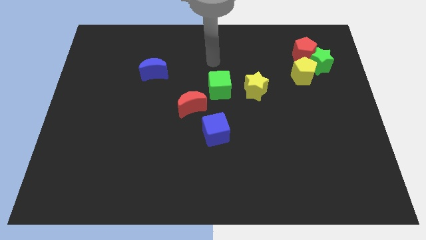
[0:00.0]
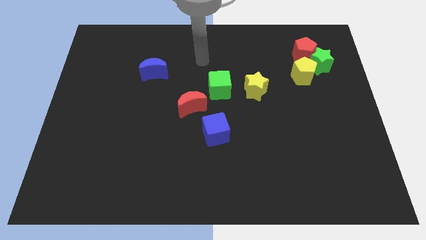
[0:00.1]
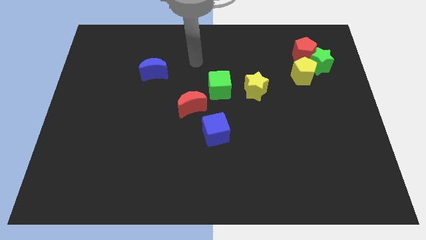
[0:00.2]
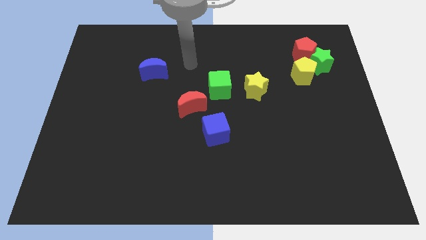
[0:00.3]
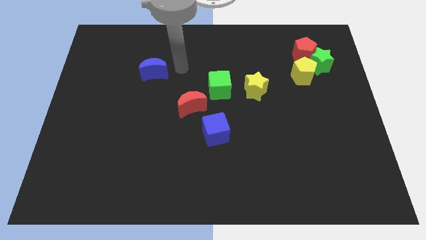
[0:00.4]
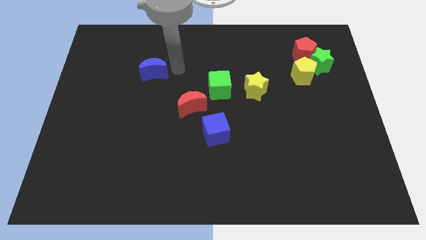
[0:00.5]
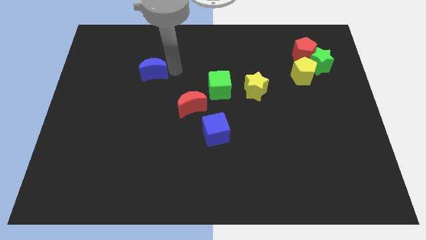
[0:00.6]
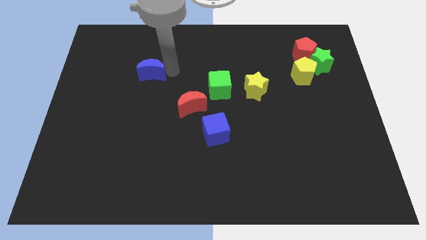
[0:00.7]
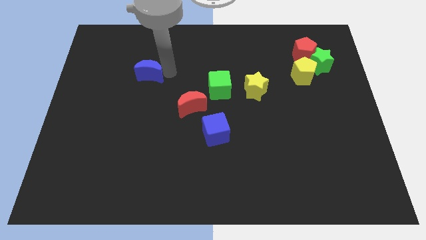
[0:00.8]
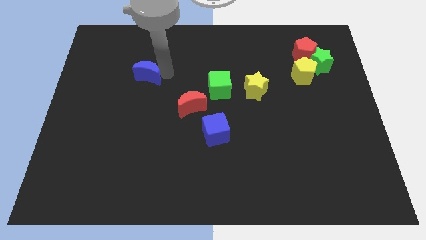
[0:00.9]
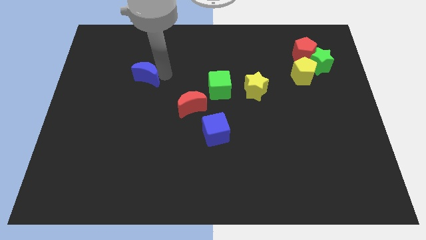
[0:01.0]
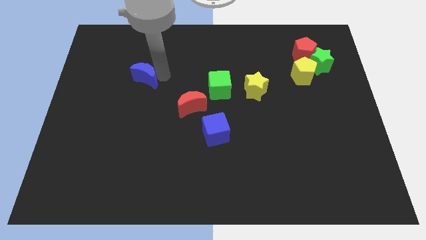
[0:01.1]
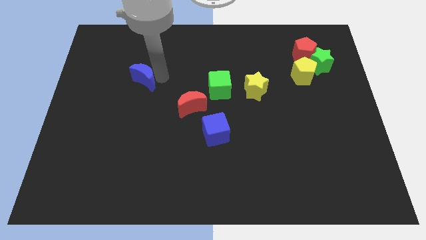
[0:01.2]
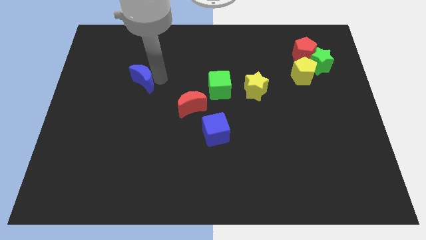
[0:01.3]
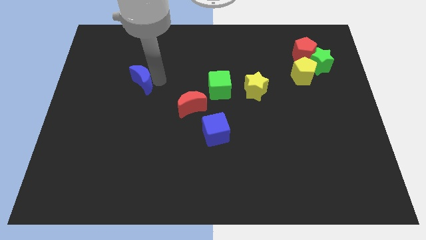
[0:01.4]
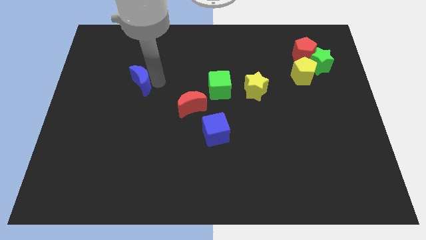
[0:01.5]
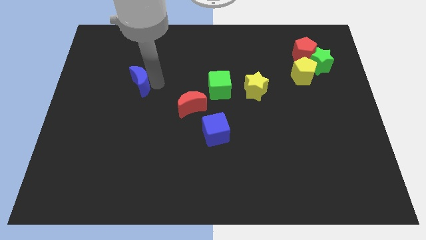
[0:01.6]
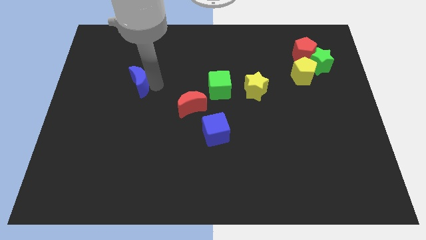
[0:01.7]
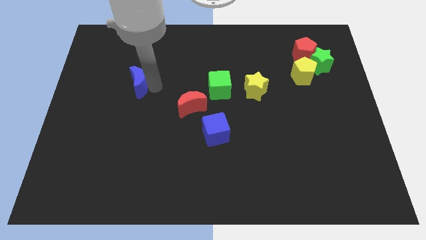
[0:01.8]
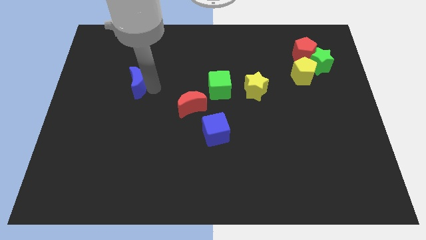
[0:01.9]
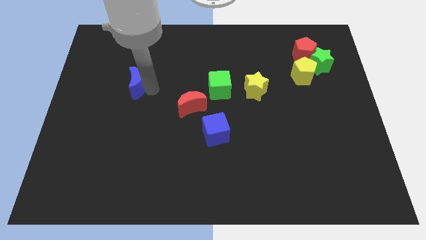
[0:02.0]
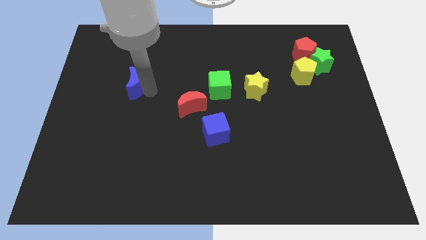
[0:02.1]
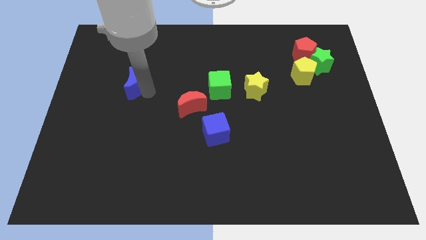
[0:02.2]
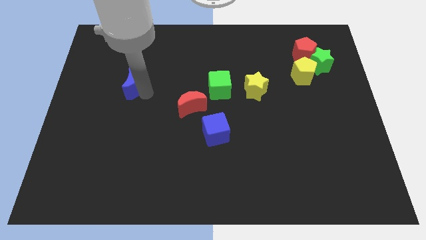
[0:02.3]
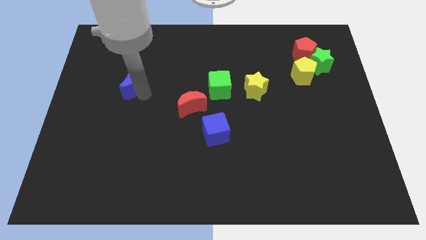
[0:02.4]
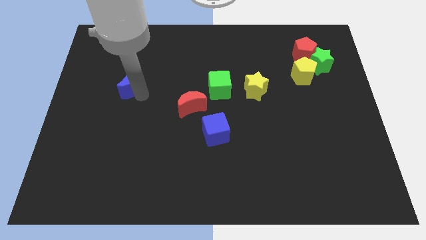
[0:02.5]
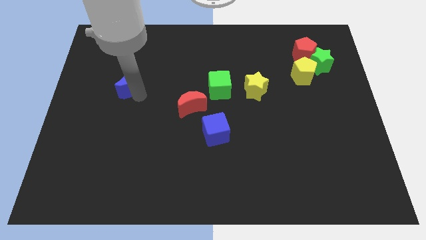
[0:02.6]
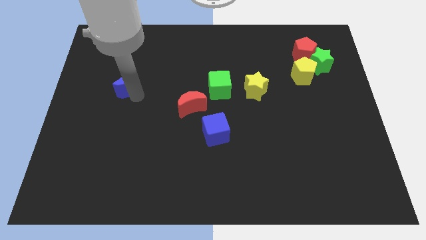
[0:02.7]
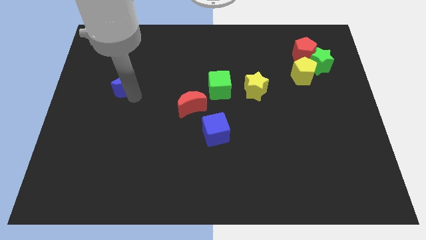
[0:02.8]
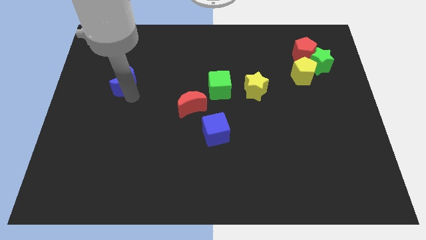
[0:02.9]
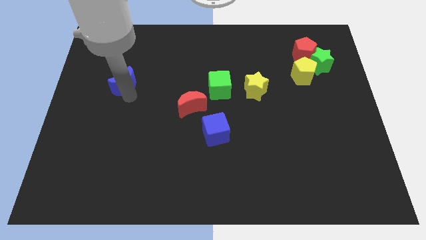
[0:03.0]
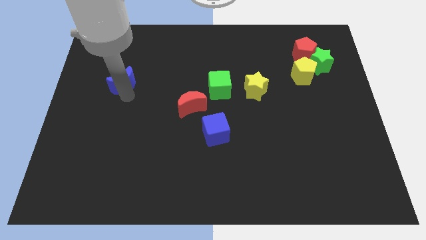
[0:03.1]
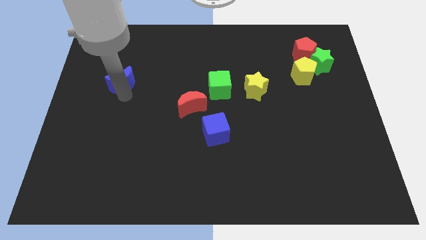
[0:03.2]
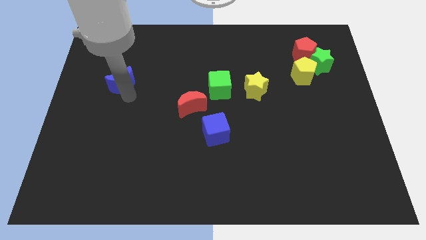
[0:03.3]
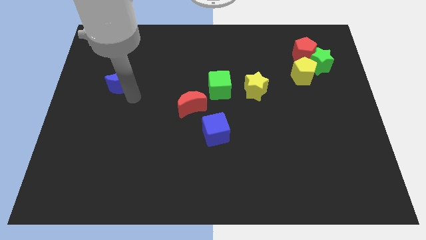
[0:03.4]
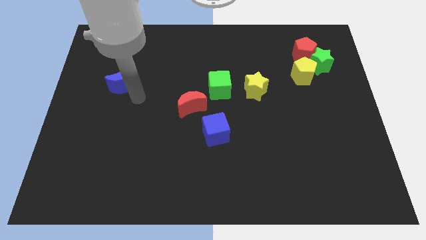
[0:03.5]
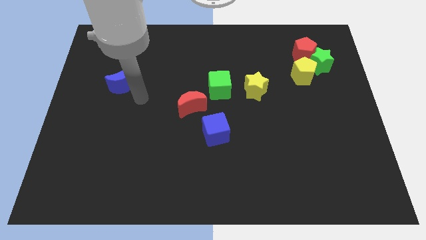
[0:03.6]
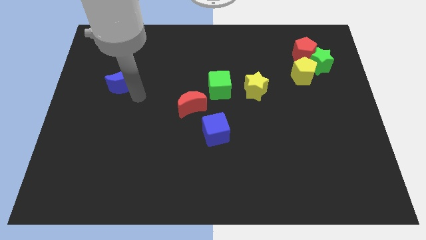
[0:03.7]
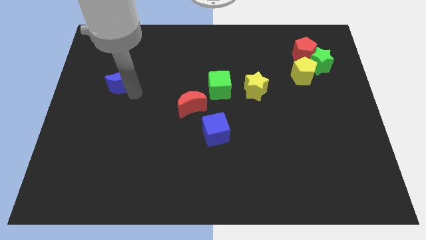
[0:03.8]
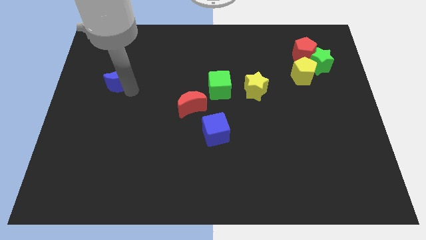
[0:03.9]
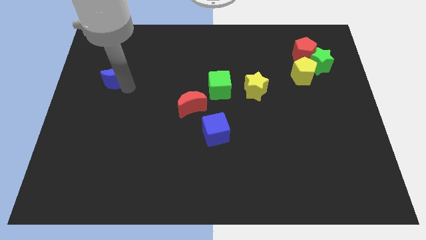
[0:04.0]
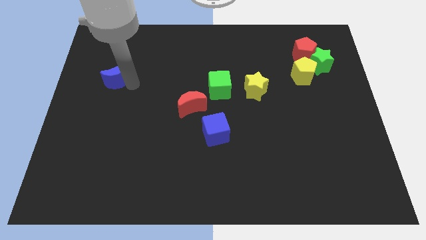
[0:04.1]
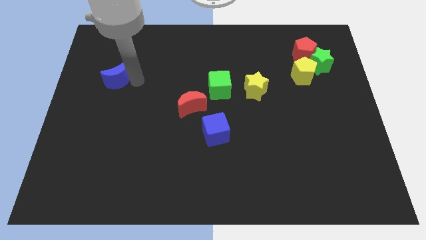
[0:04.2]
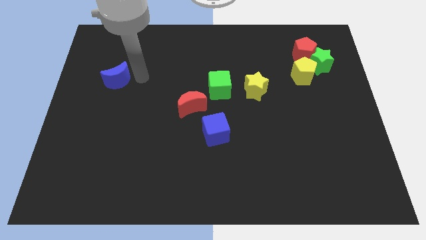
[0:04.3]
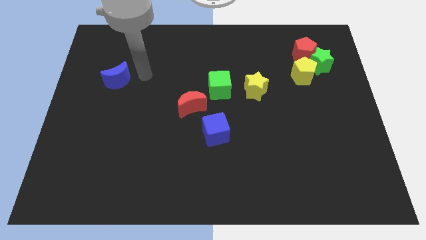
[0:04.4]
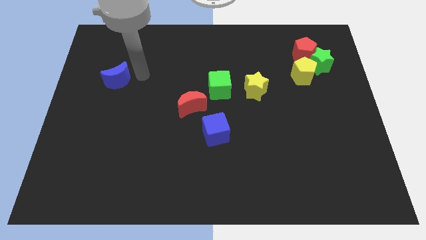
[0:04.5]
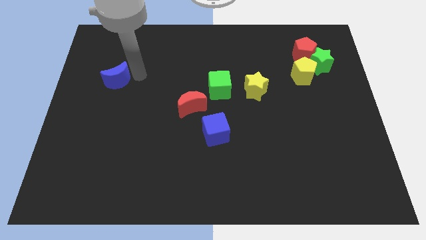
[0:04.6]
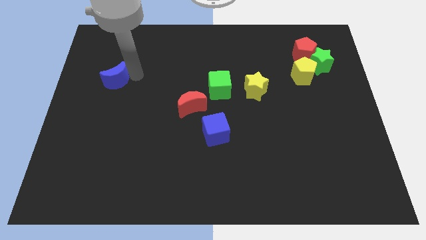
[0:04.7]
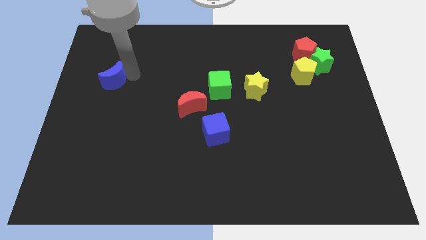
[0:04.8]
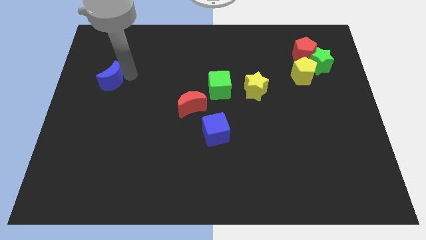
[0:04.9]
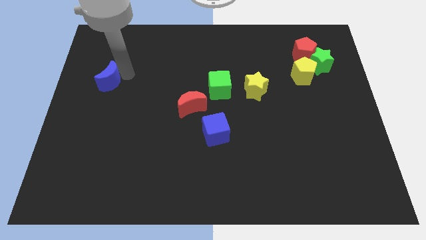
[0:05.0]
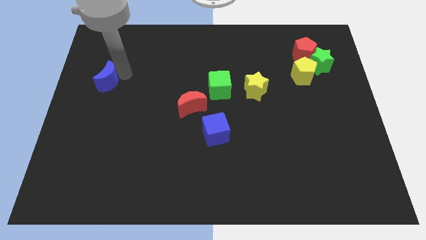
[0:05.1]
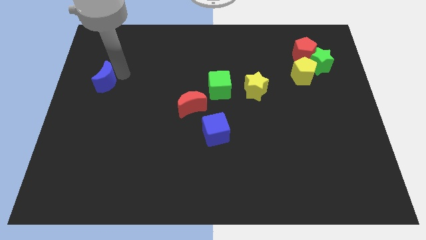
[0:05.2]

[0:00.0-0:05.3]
slide the blue moon to the left side of the board

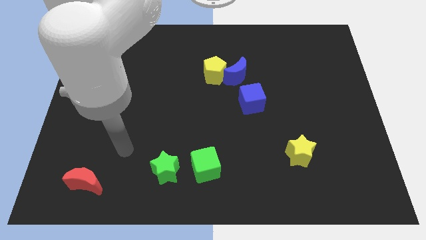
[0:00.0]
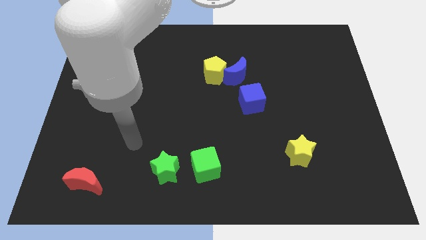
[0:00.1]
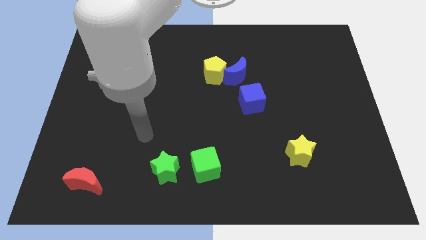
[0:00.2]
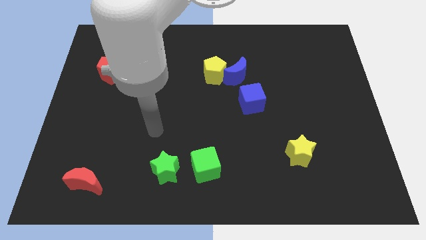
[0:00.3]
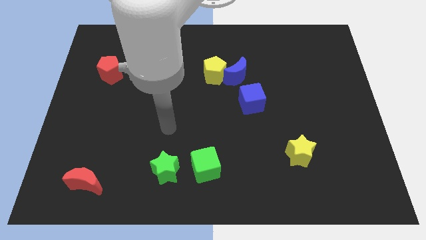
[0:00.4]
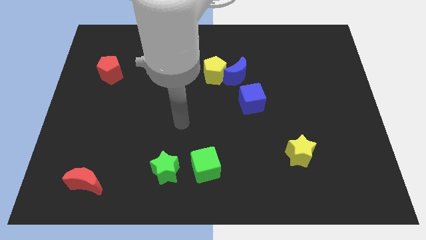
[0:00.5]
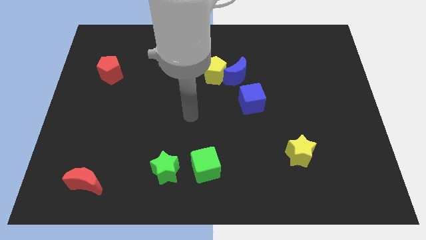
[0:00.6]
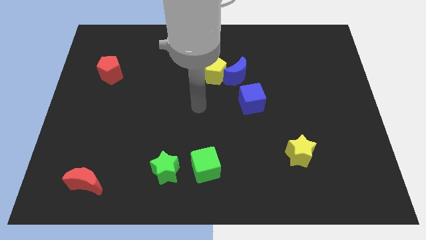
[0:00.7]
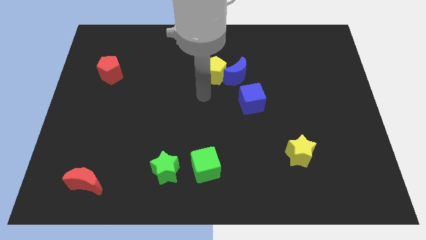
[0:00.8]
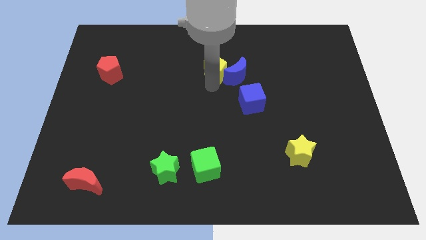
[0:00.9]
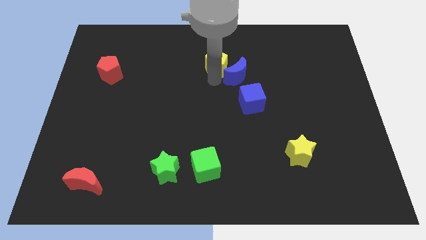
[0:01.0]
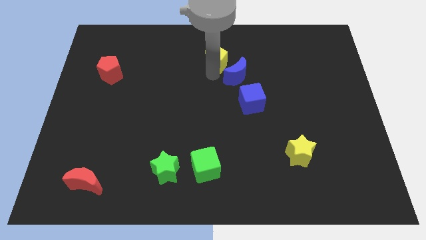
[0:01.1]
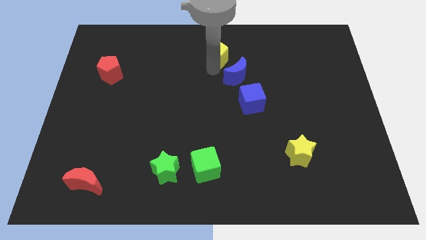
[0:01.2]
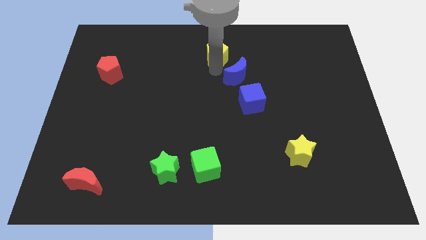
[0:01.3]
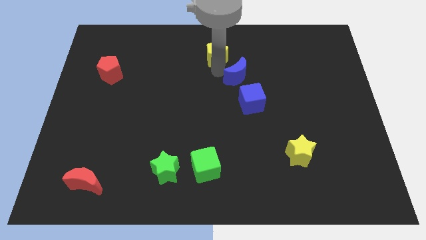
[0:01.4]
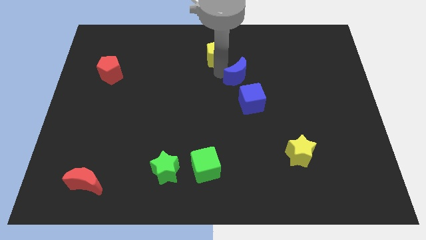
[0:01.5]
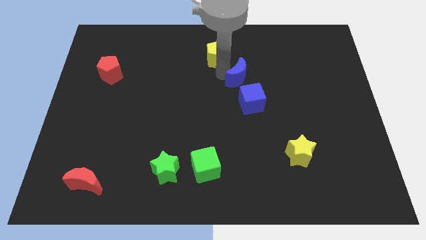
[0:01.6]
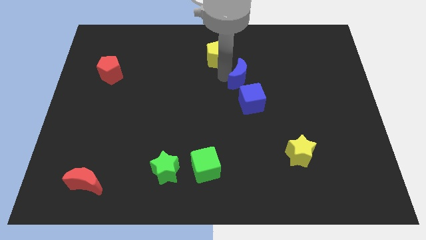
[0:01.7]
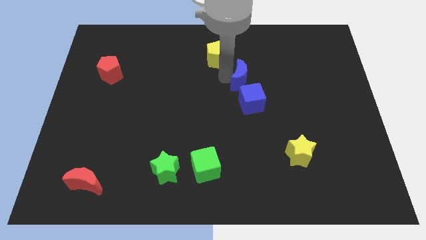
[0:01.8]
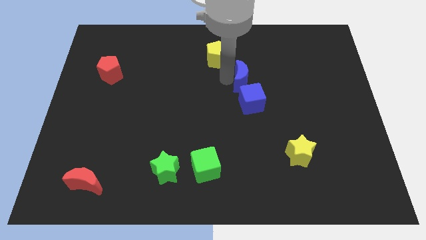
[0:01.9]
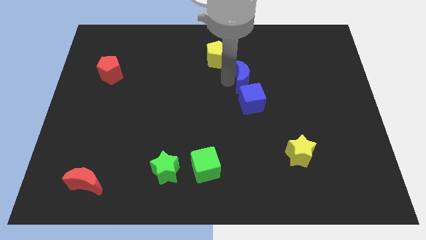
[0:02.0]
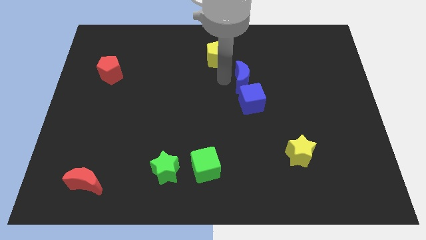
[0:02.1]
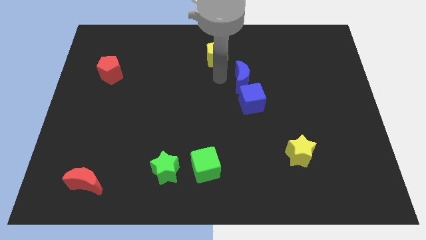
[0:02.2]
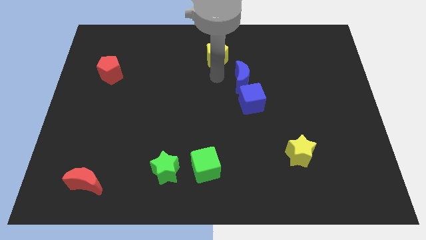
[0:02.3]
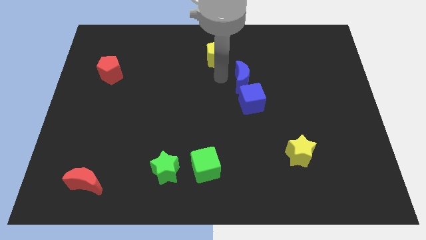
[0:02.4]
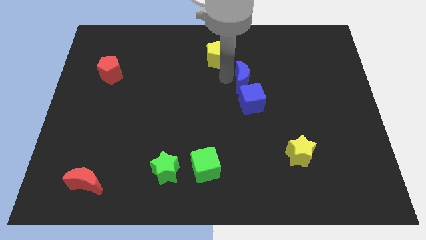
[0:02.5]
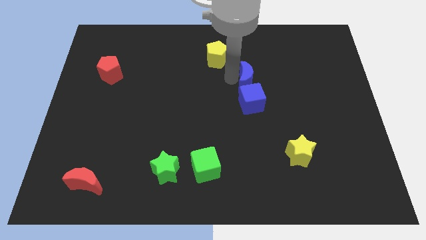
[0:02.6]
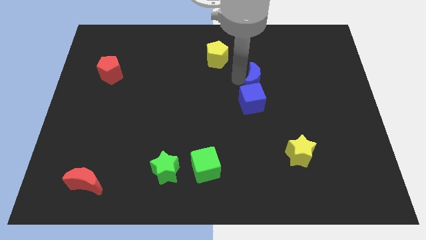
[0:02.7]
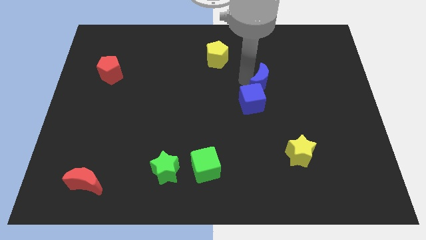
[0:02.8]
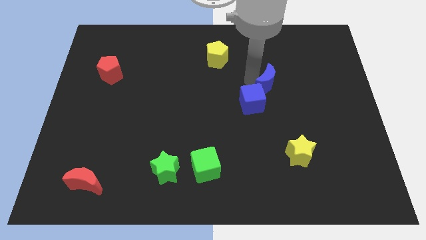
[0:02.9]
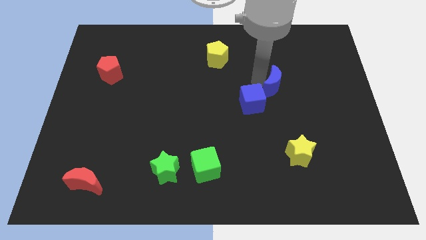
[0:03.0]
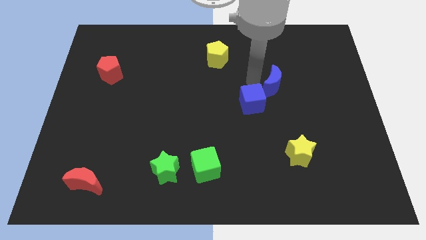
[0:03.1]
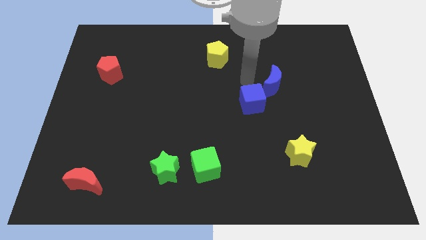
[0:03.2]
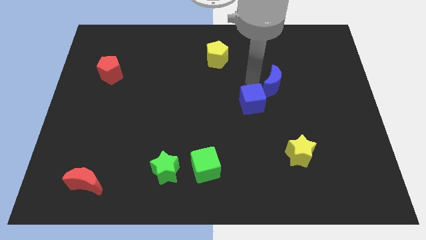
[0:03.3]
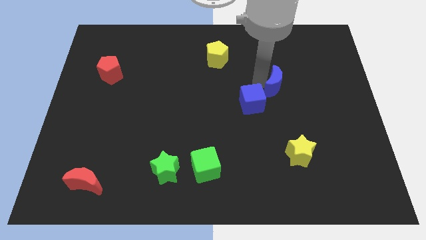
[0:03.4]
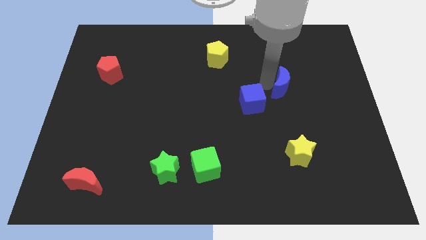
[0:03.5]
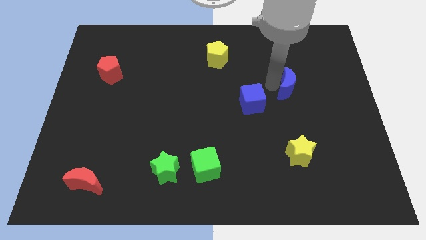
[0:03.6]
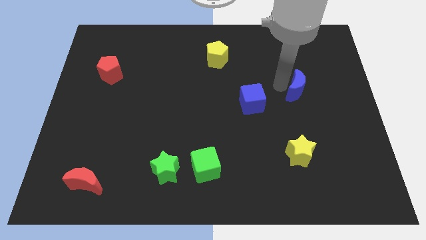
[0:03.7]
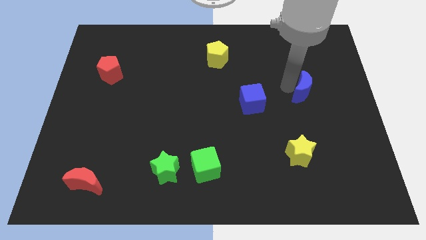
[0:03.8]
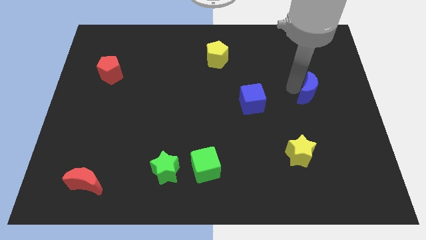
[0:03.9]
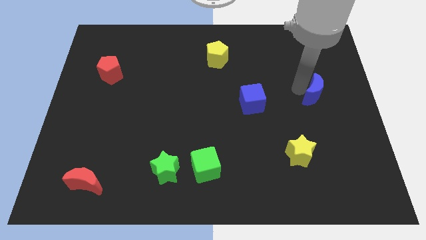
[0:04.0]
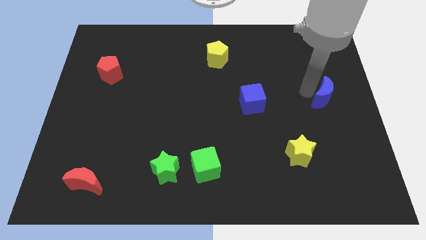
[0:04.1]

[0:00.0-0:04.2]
move the blue moon to the center right
